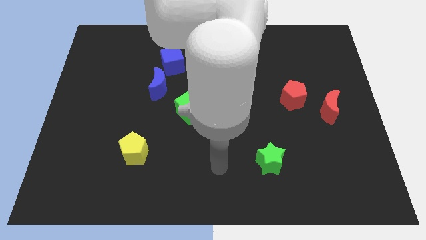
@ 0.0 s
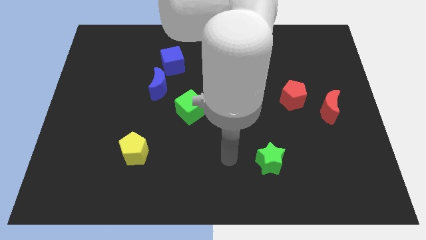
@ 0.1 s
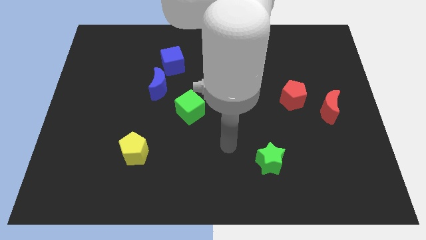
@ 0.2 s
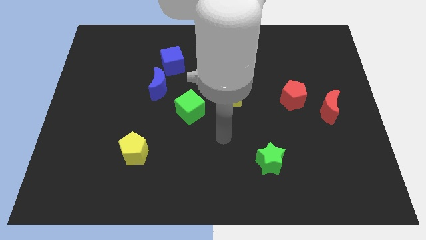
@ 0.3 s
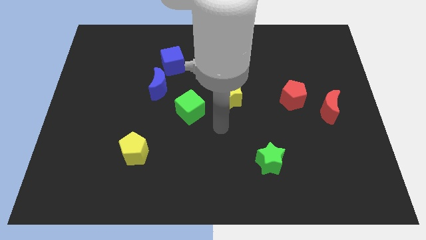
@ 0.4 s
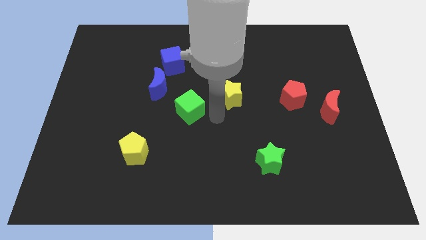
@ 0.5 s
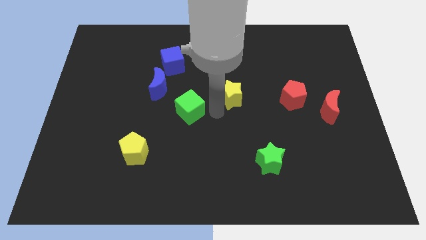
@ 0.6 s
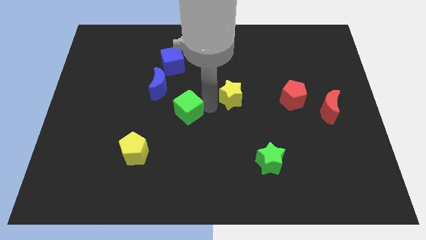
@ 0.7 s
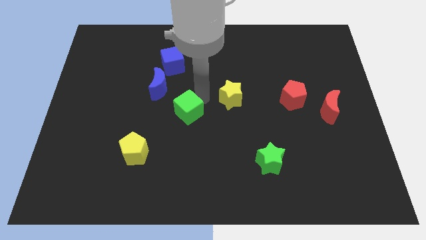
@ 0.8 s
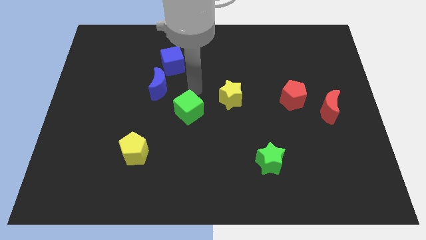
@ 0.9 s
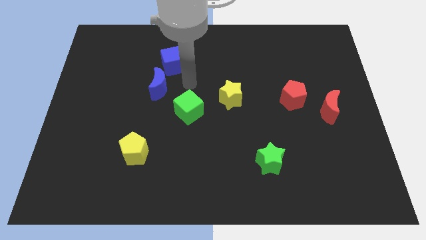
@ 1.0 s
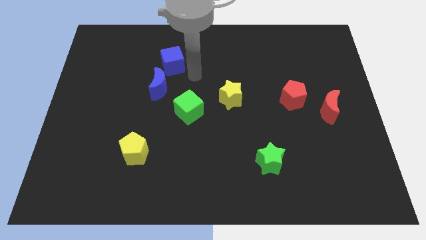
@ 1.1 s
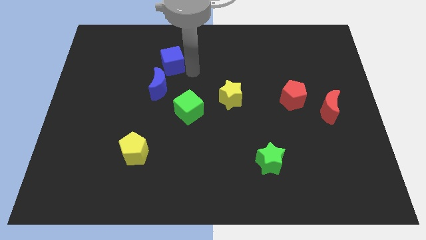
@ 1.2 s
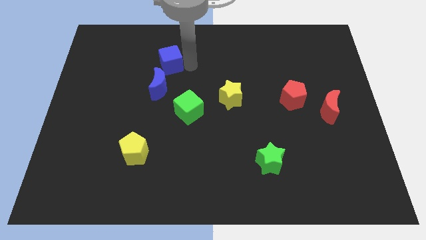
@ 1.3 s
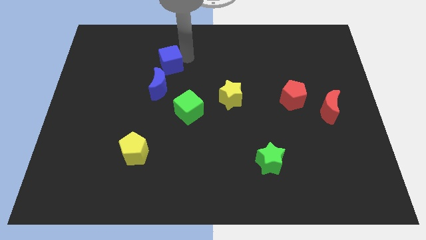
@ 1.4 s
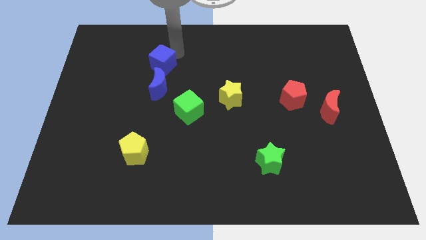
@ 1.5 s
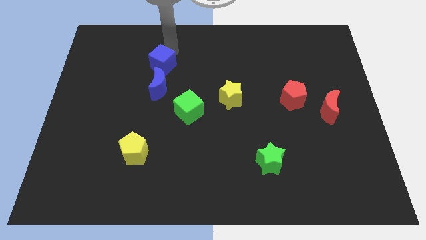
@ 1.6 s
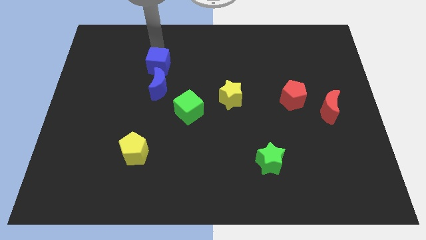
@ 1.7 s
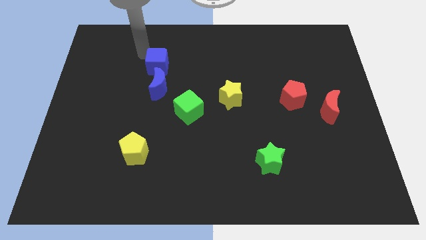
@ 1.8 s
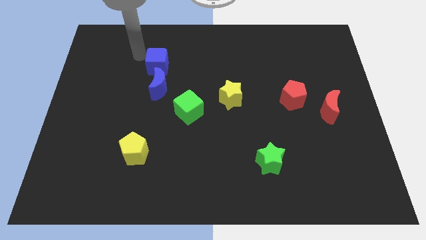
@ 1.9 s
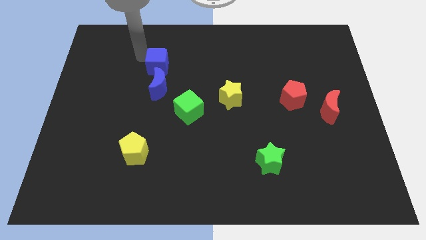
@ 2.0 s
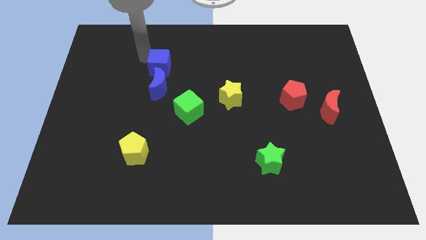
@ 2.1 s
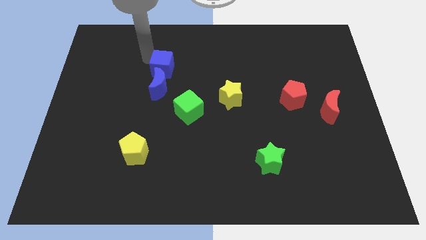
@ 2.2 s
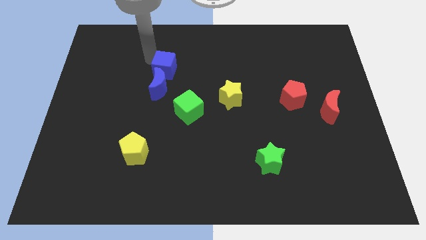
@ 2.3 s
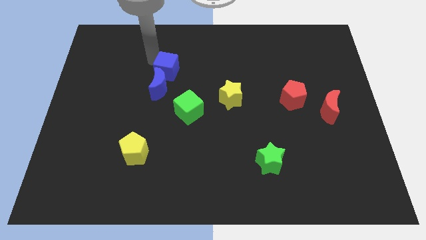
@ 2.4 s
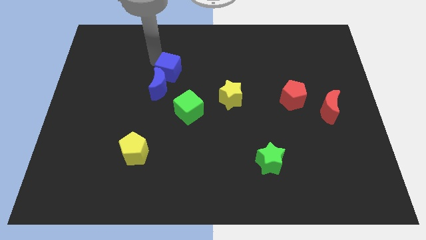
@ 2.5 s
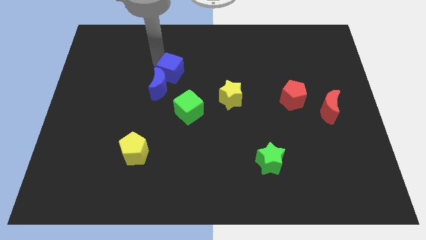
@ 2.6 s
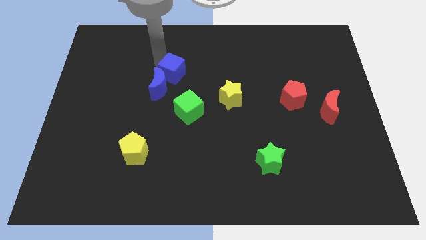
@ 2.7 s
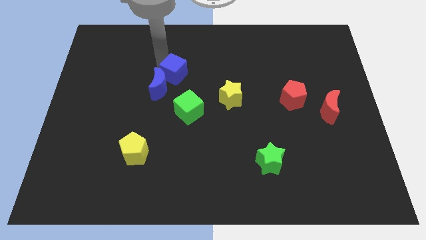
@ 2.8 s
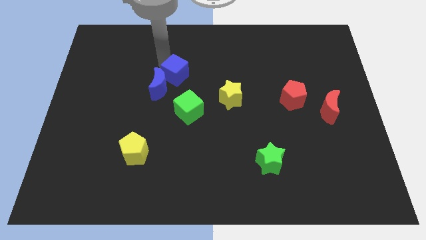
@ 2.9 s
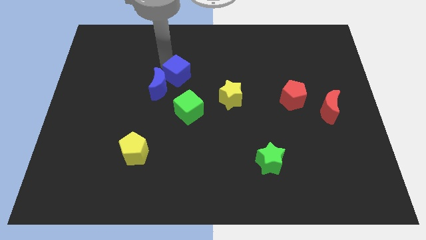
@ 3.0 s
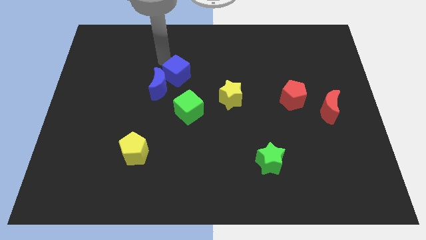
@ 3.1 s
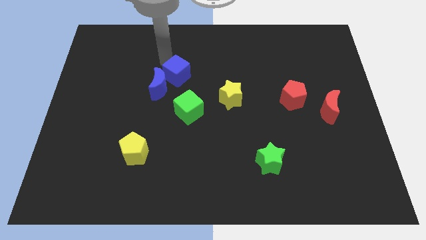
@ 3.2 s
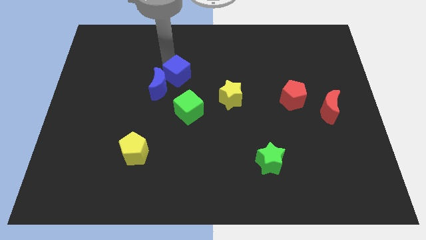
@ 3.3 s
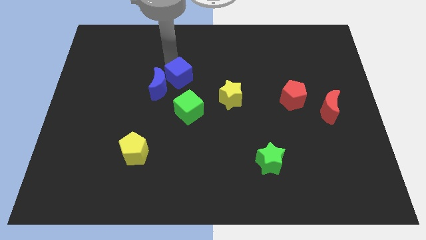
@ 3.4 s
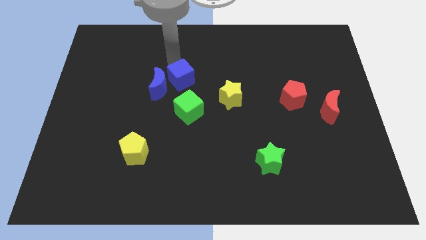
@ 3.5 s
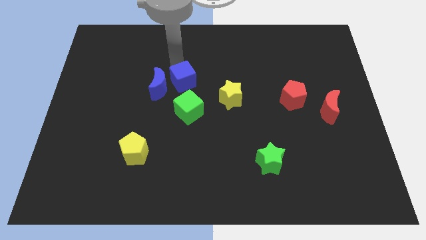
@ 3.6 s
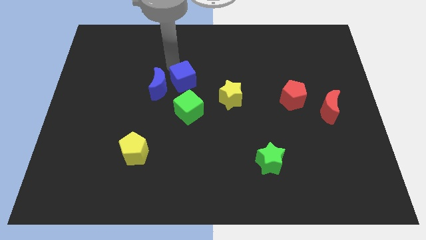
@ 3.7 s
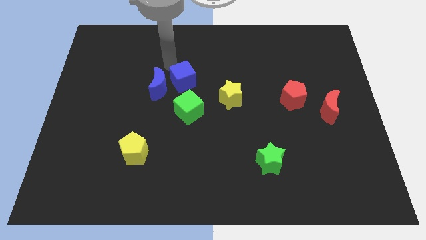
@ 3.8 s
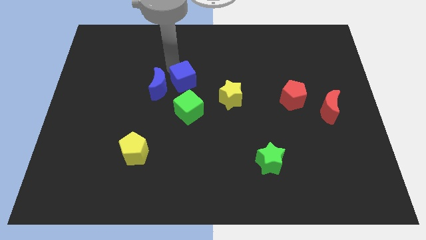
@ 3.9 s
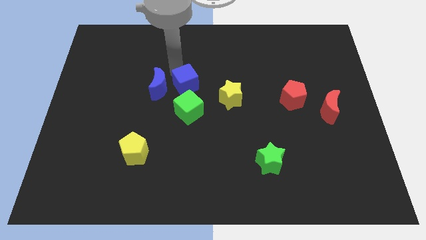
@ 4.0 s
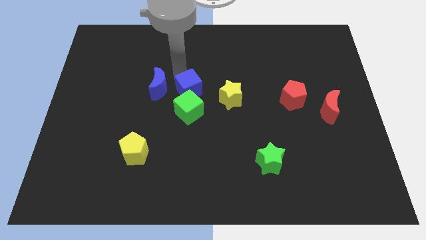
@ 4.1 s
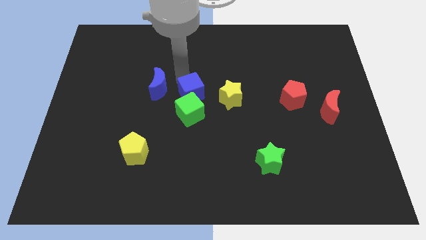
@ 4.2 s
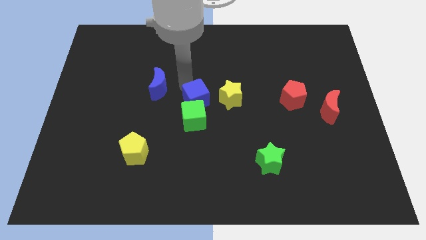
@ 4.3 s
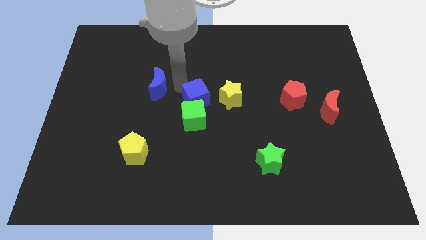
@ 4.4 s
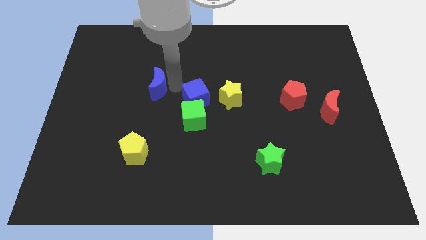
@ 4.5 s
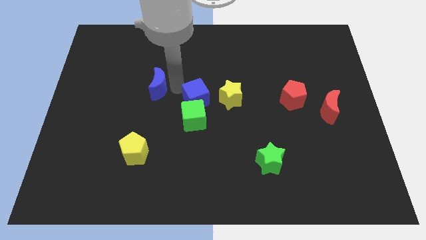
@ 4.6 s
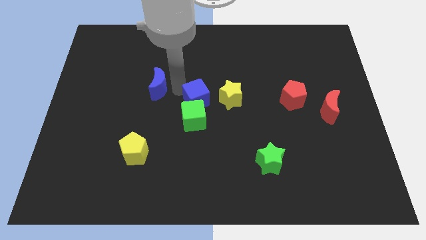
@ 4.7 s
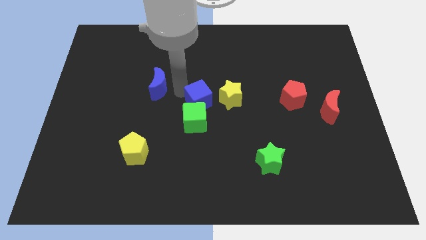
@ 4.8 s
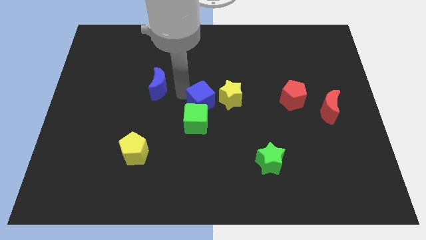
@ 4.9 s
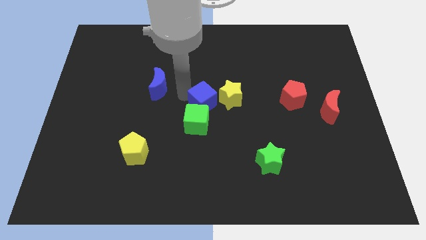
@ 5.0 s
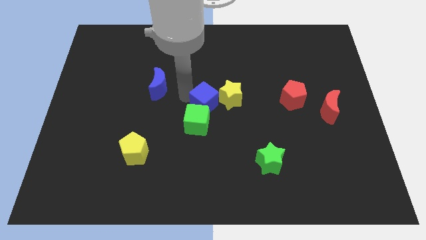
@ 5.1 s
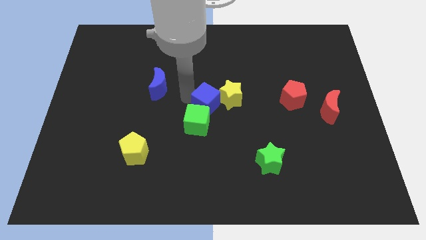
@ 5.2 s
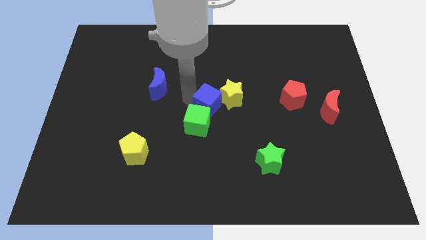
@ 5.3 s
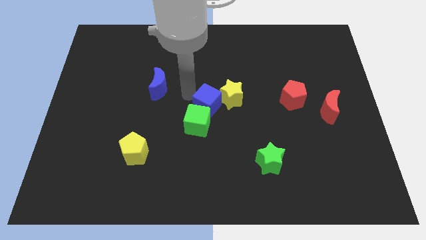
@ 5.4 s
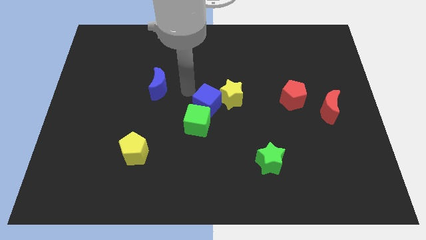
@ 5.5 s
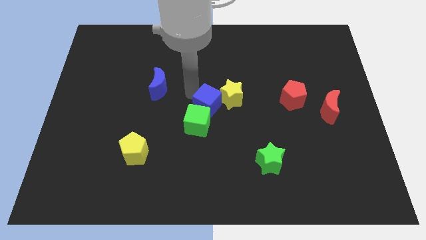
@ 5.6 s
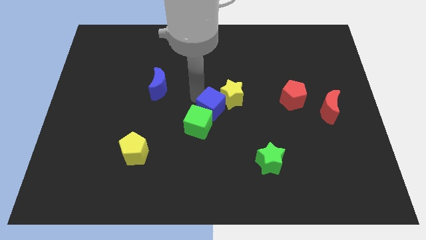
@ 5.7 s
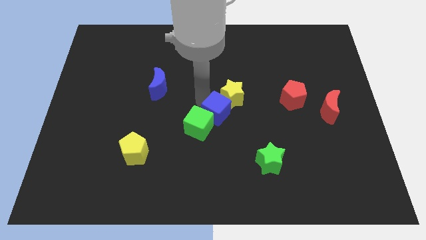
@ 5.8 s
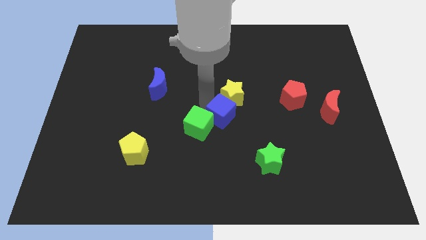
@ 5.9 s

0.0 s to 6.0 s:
slide the blue cube downwards and right diagonally

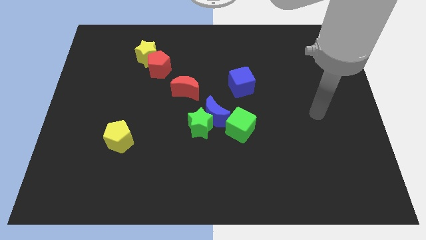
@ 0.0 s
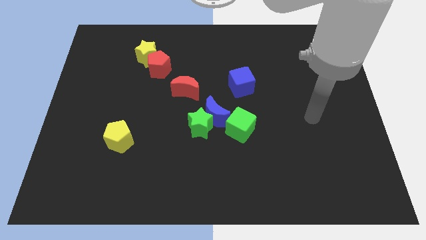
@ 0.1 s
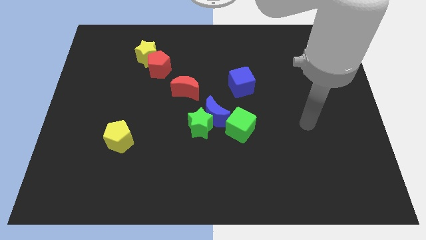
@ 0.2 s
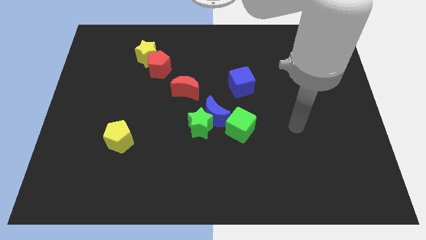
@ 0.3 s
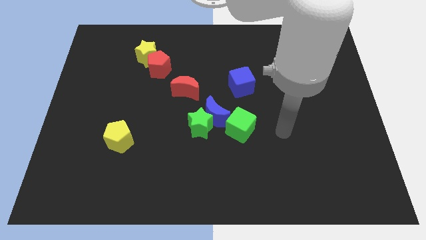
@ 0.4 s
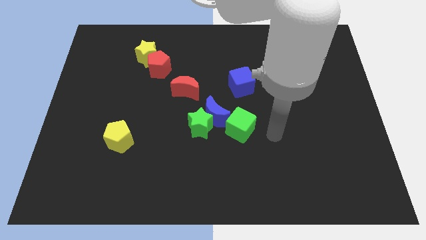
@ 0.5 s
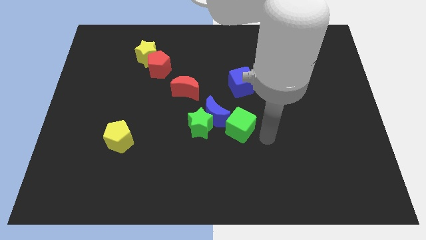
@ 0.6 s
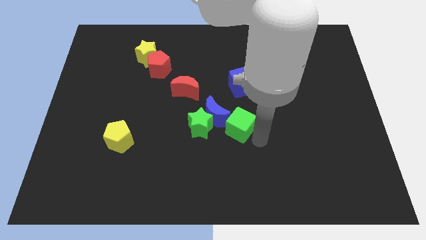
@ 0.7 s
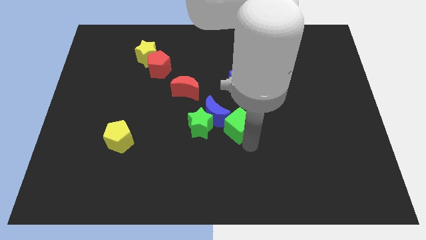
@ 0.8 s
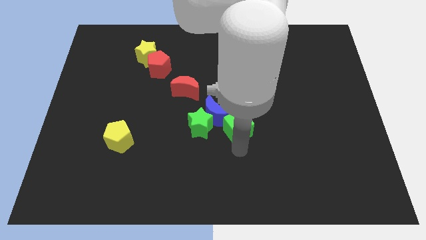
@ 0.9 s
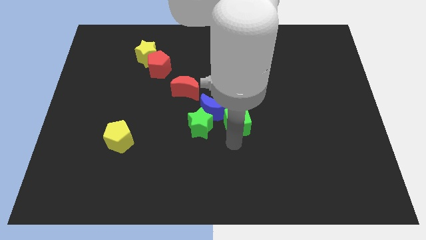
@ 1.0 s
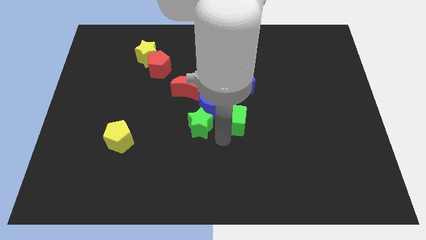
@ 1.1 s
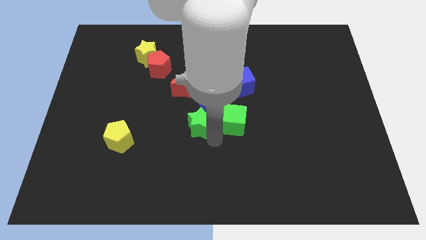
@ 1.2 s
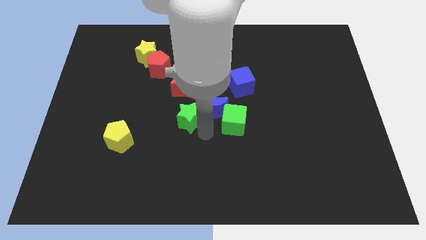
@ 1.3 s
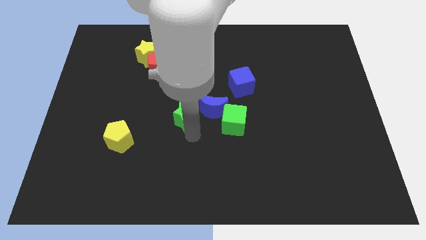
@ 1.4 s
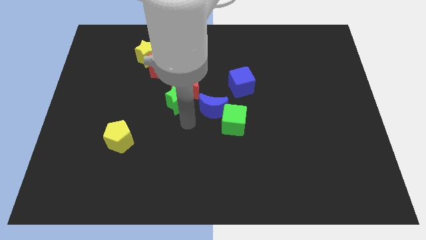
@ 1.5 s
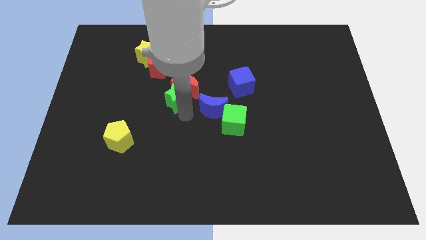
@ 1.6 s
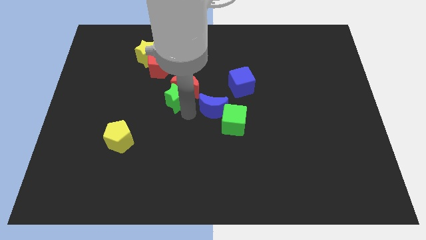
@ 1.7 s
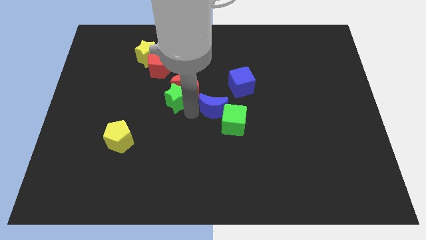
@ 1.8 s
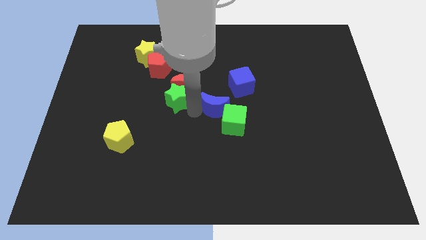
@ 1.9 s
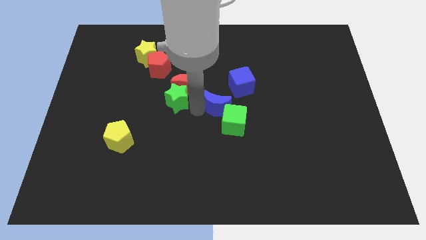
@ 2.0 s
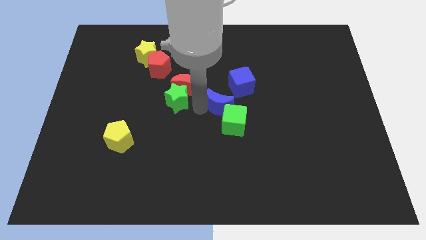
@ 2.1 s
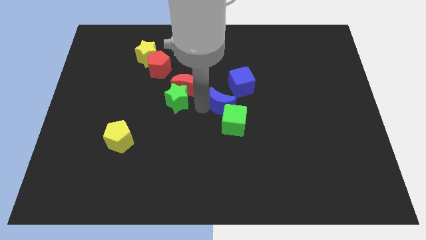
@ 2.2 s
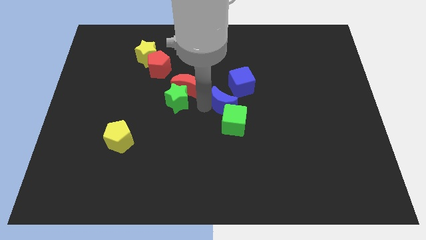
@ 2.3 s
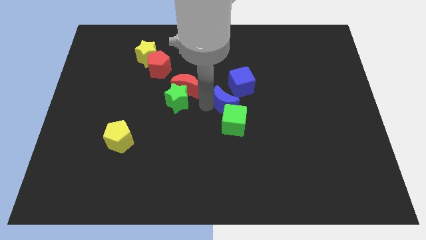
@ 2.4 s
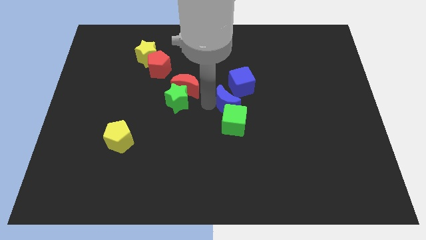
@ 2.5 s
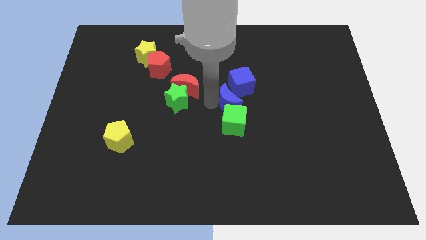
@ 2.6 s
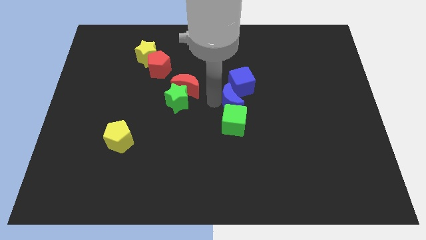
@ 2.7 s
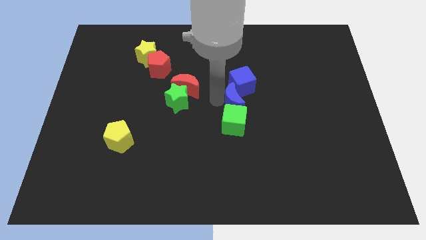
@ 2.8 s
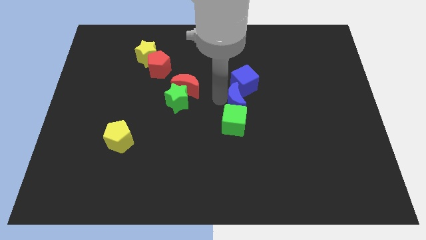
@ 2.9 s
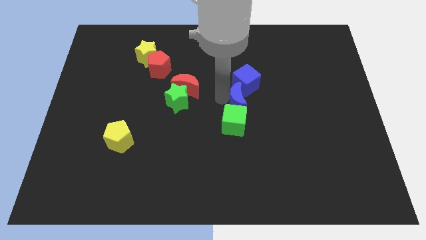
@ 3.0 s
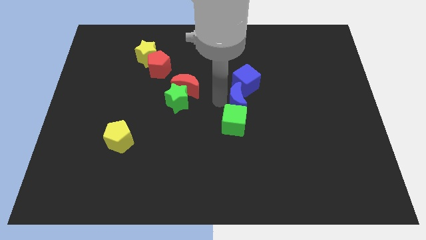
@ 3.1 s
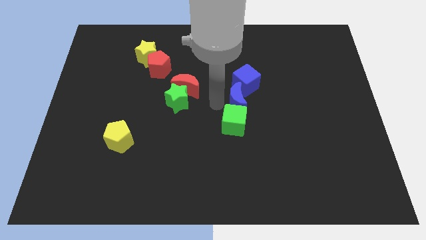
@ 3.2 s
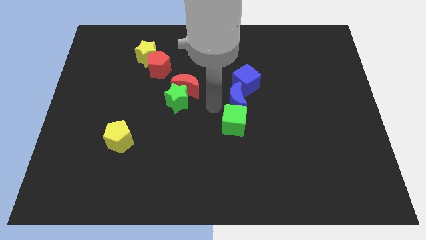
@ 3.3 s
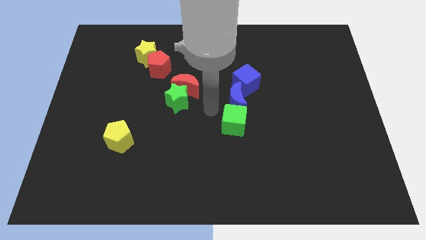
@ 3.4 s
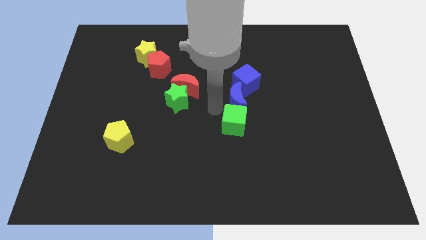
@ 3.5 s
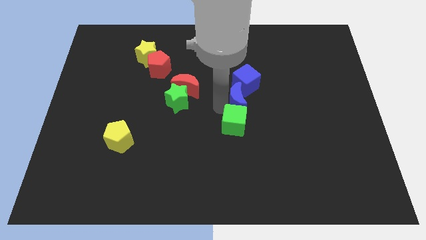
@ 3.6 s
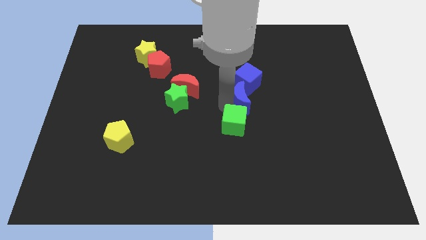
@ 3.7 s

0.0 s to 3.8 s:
slightly push the blue moon upwards and then to the right
